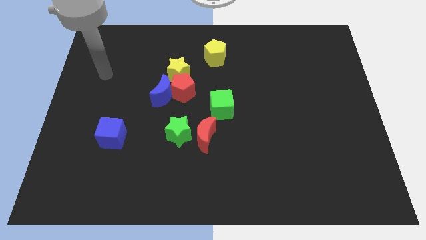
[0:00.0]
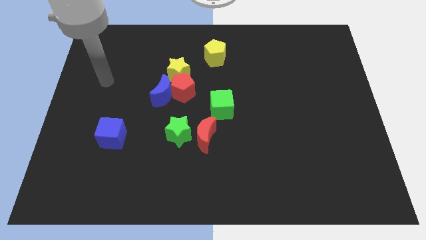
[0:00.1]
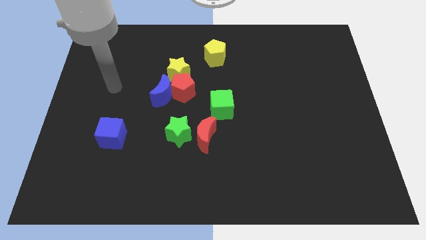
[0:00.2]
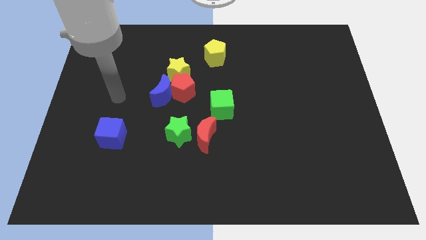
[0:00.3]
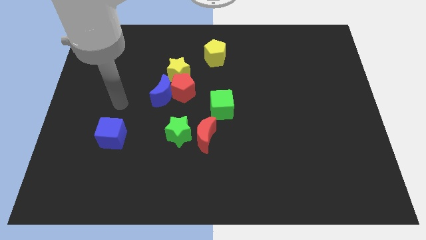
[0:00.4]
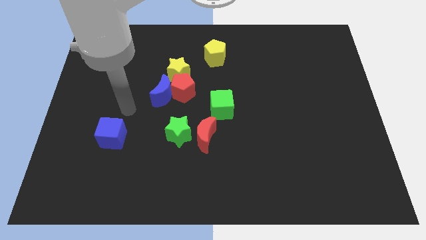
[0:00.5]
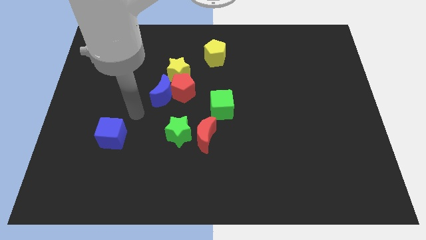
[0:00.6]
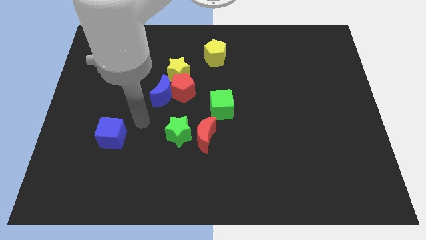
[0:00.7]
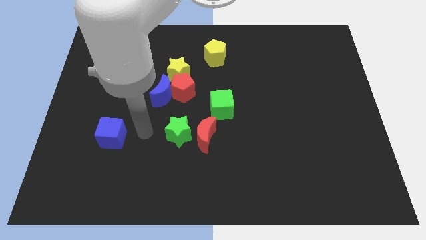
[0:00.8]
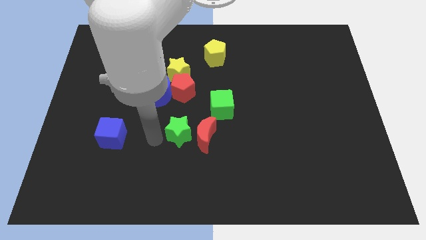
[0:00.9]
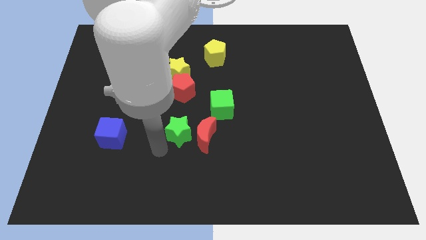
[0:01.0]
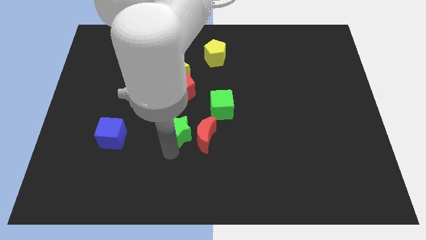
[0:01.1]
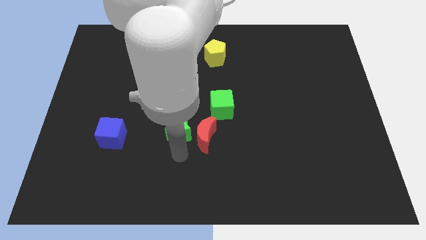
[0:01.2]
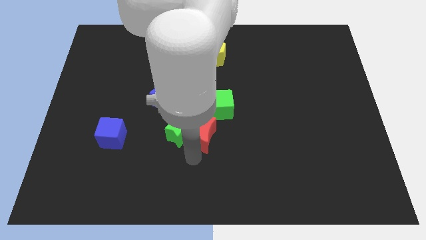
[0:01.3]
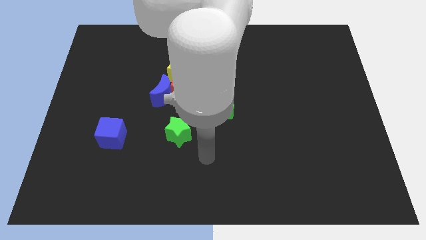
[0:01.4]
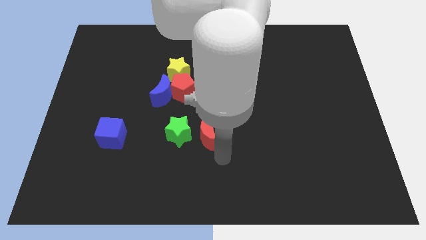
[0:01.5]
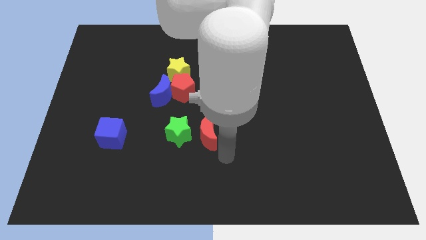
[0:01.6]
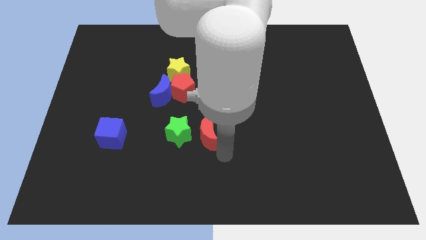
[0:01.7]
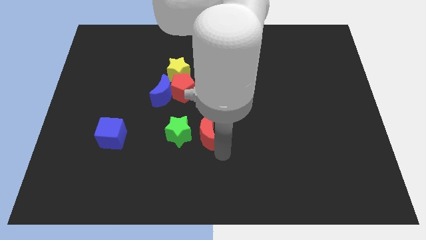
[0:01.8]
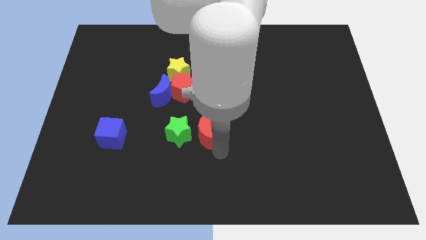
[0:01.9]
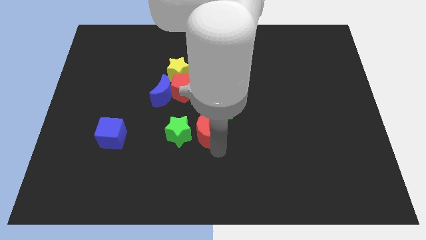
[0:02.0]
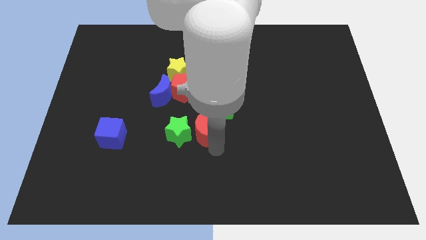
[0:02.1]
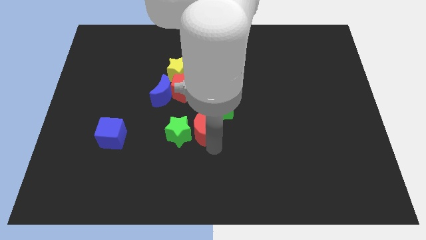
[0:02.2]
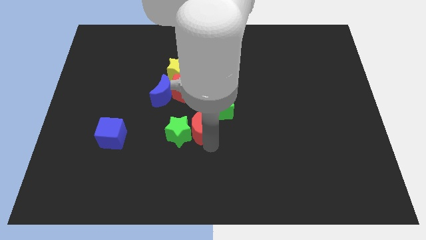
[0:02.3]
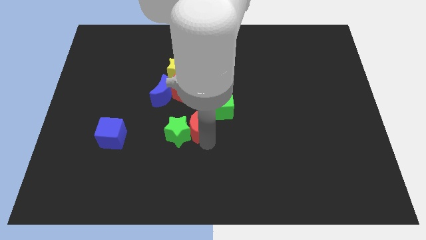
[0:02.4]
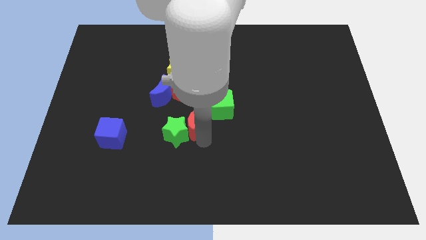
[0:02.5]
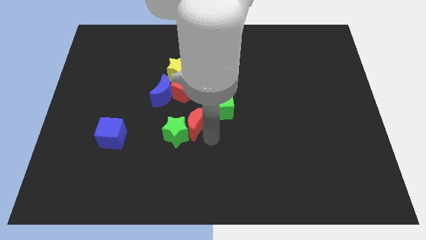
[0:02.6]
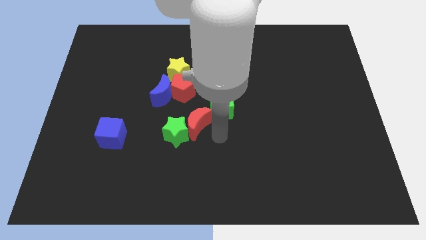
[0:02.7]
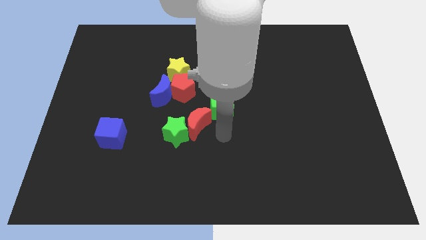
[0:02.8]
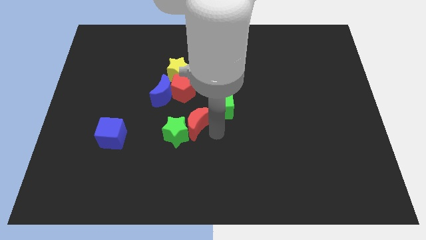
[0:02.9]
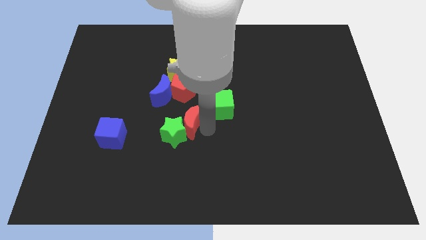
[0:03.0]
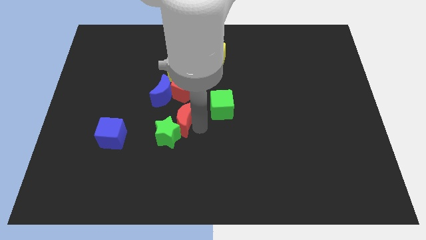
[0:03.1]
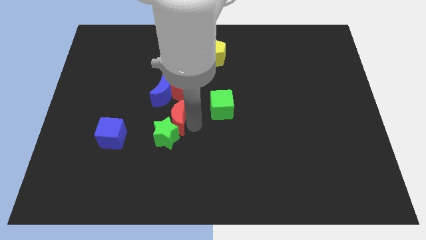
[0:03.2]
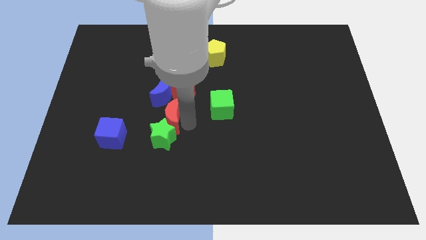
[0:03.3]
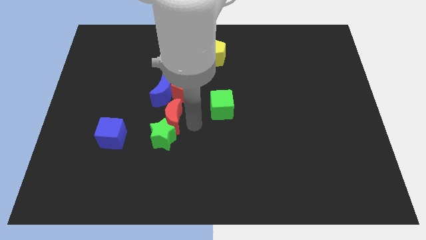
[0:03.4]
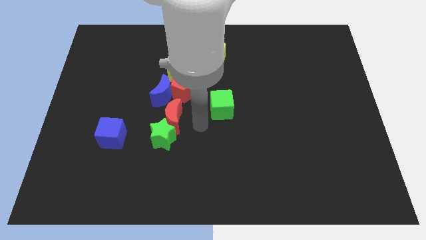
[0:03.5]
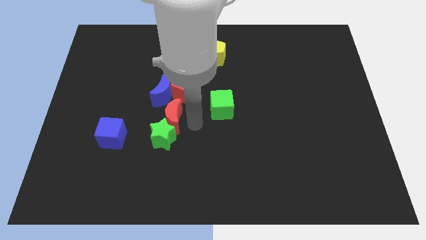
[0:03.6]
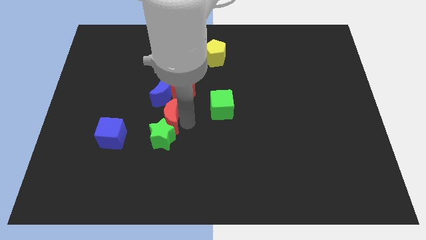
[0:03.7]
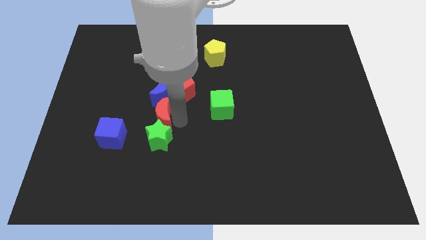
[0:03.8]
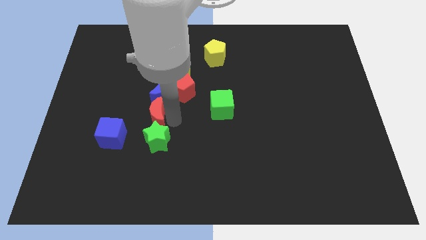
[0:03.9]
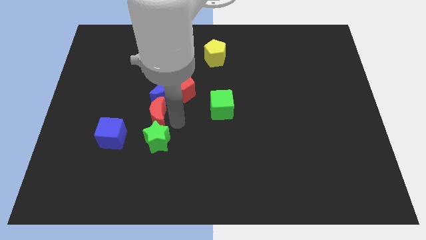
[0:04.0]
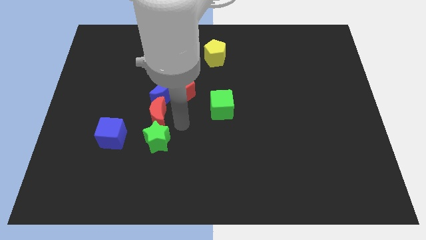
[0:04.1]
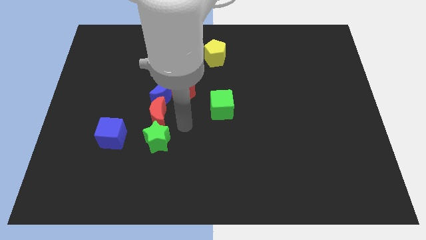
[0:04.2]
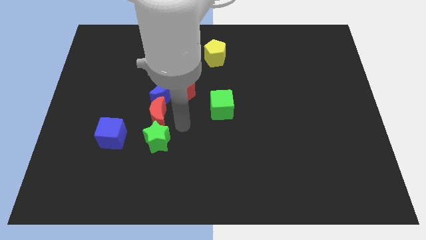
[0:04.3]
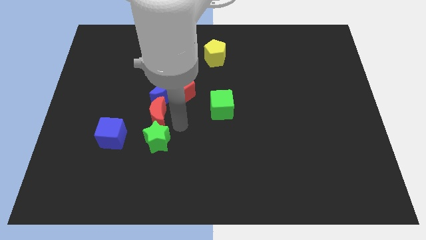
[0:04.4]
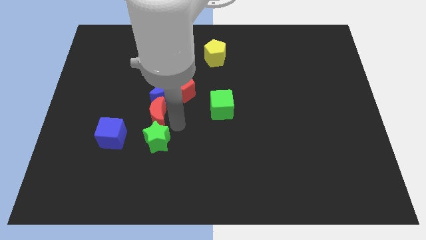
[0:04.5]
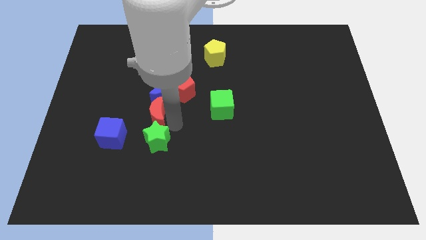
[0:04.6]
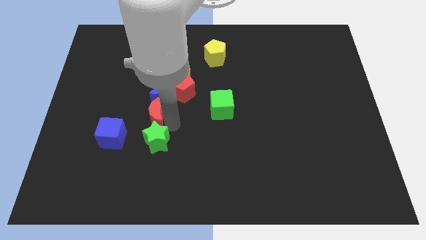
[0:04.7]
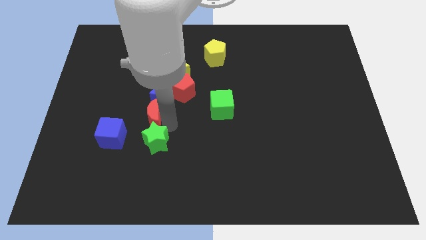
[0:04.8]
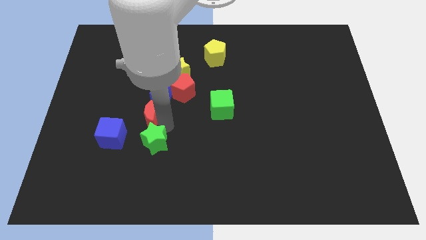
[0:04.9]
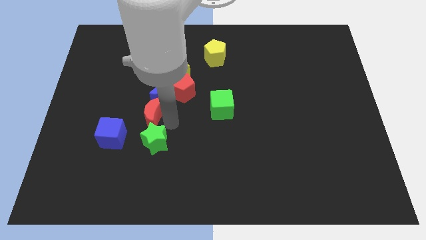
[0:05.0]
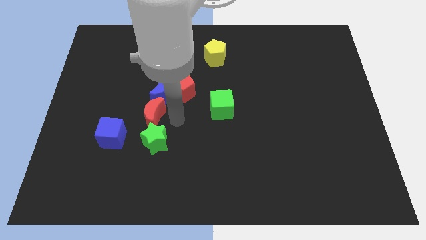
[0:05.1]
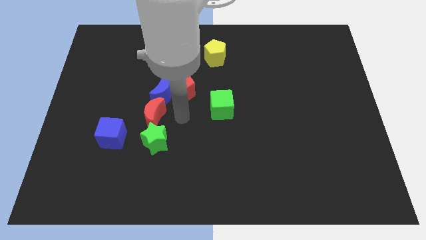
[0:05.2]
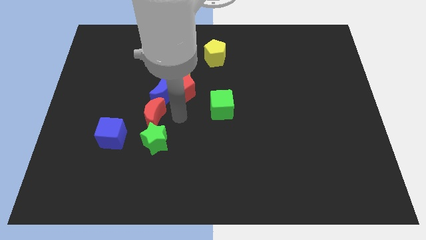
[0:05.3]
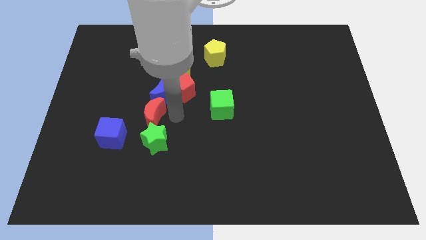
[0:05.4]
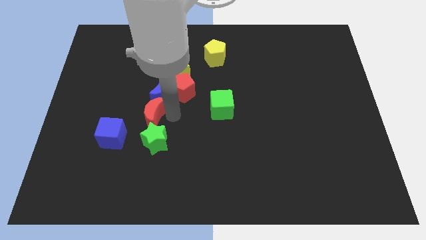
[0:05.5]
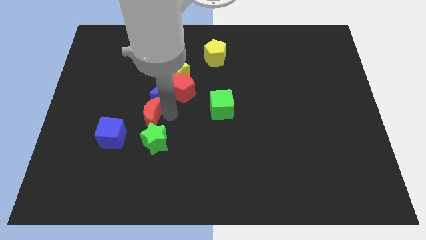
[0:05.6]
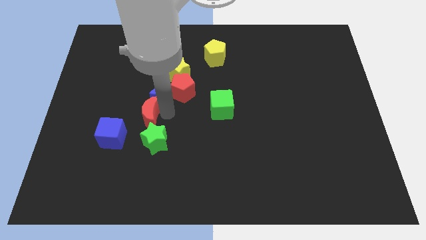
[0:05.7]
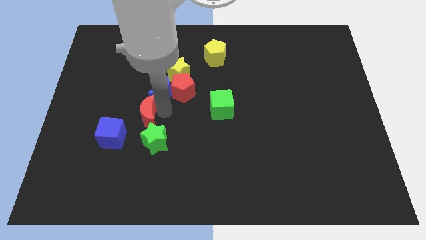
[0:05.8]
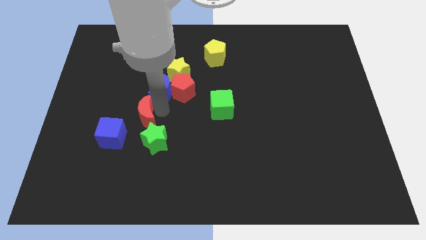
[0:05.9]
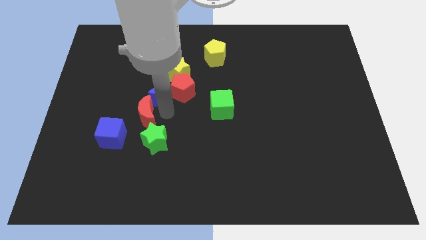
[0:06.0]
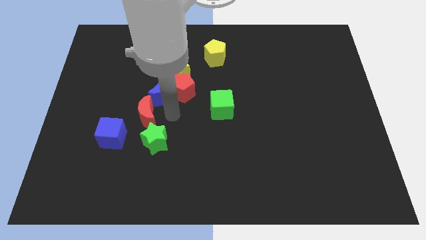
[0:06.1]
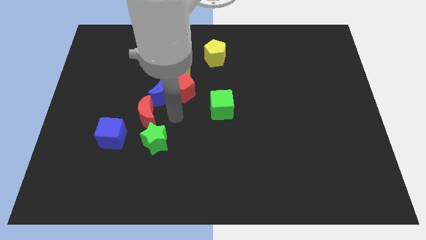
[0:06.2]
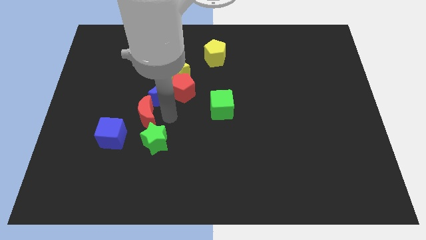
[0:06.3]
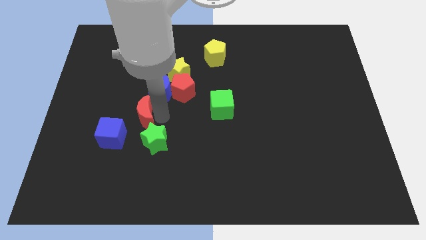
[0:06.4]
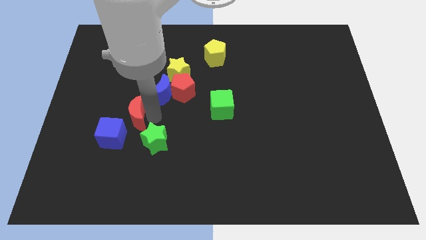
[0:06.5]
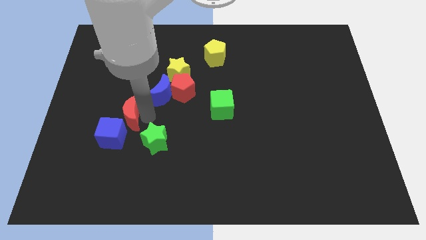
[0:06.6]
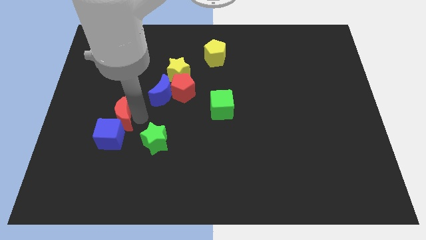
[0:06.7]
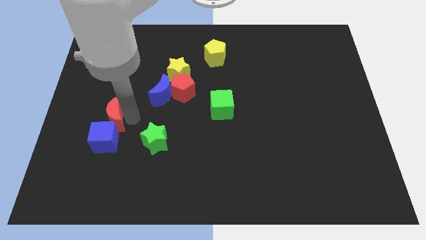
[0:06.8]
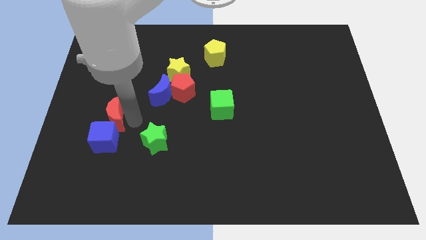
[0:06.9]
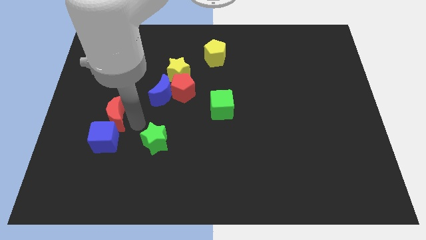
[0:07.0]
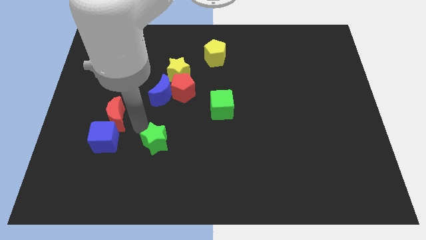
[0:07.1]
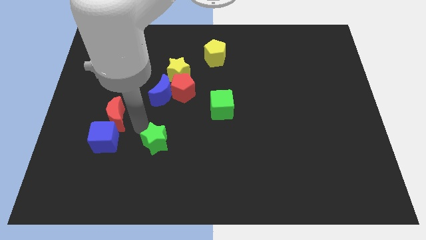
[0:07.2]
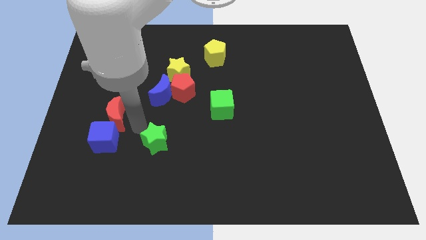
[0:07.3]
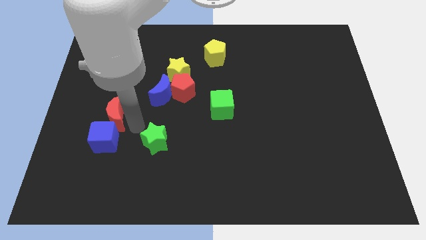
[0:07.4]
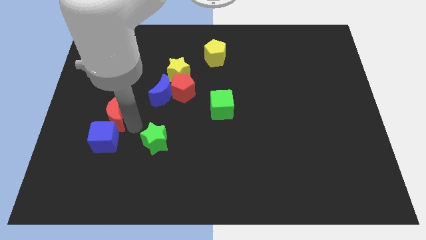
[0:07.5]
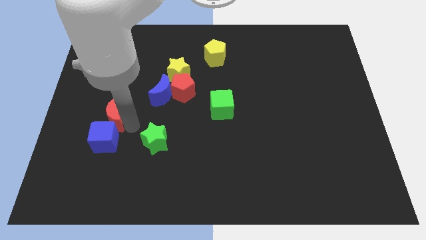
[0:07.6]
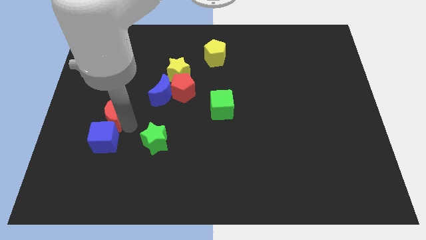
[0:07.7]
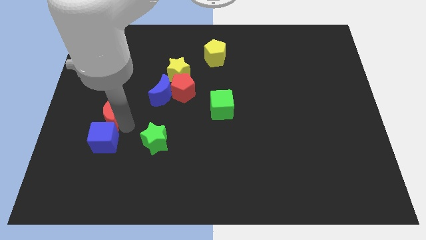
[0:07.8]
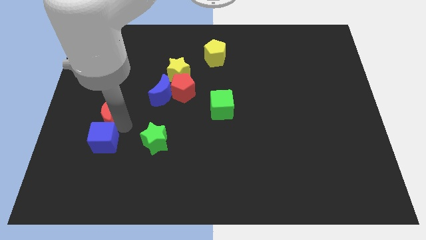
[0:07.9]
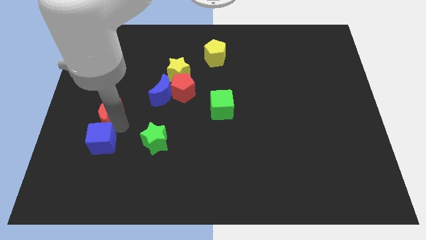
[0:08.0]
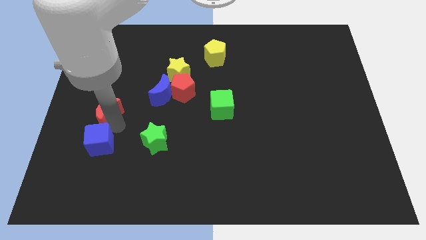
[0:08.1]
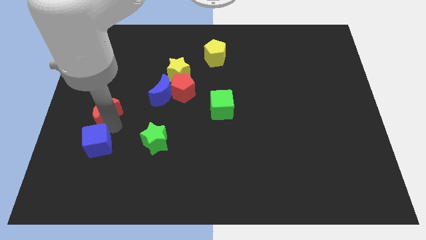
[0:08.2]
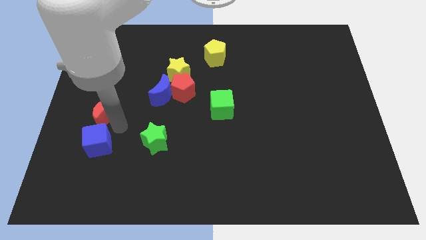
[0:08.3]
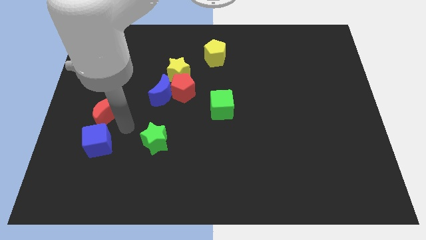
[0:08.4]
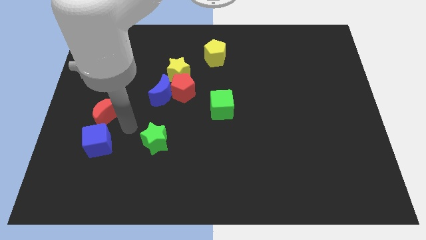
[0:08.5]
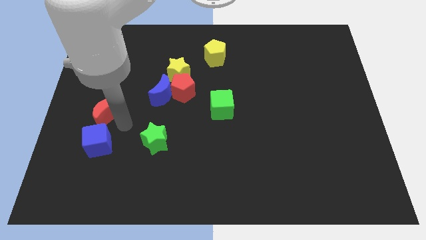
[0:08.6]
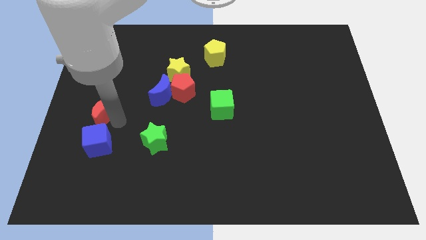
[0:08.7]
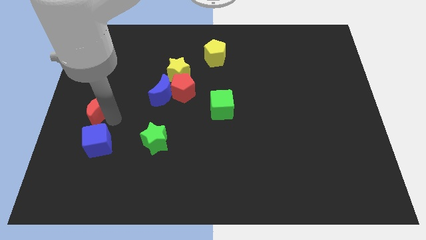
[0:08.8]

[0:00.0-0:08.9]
move the red moon to the left side
